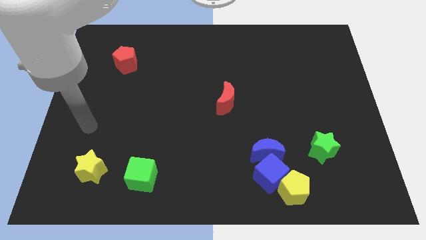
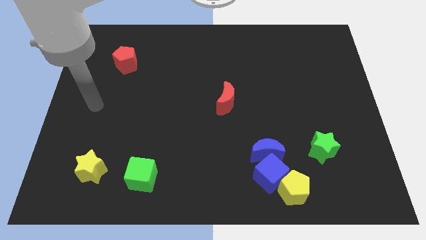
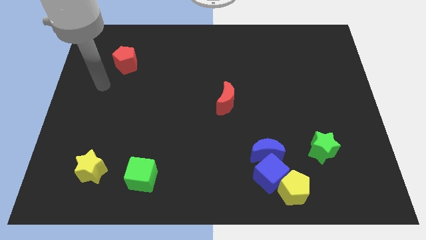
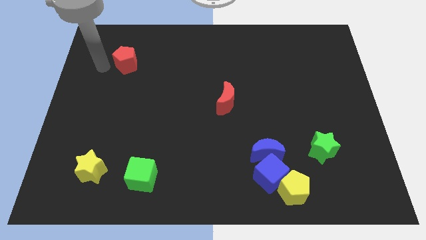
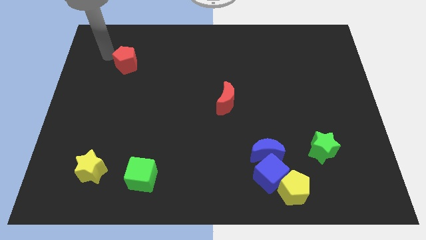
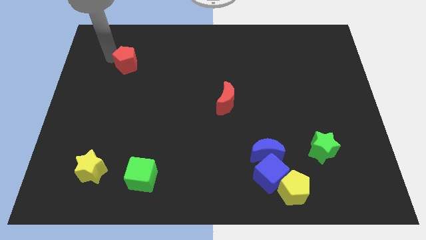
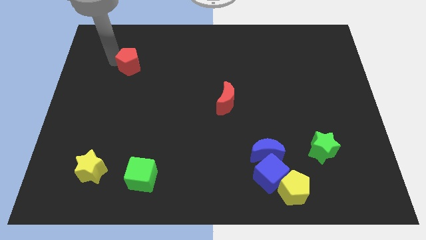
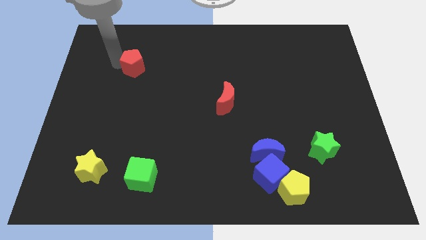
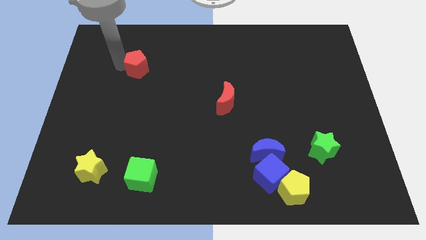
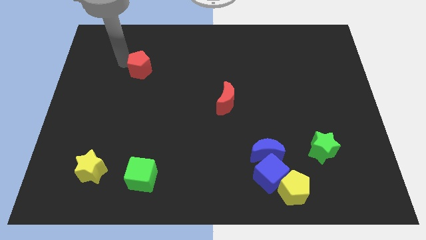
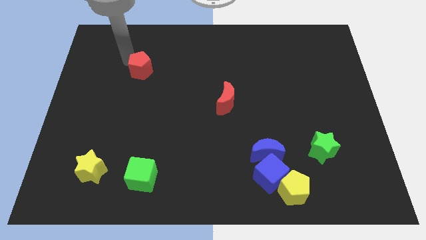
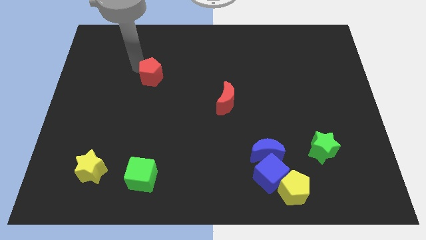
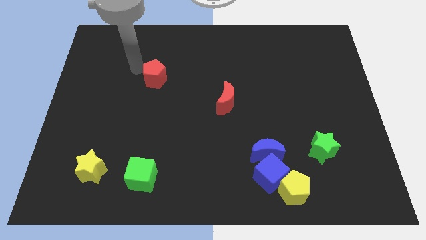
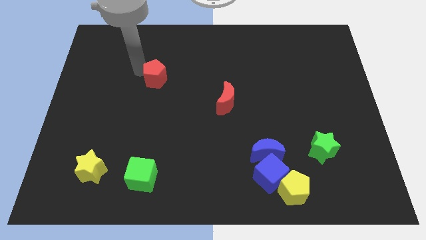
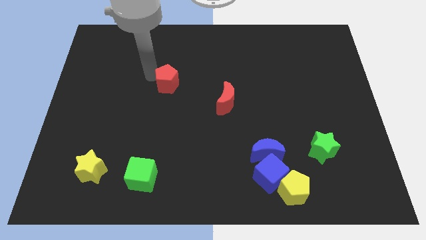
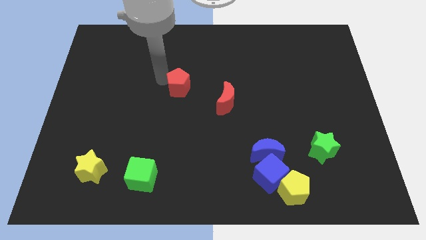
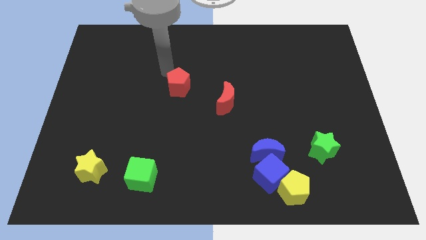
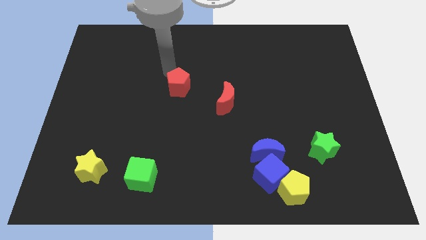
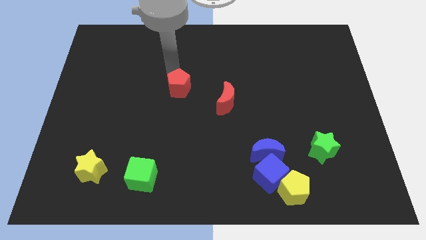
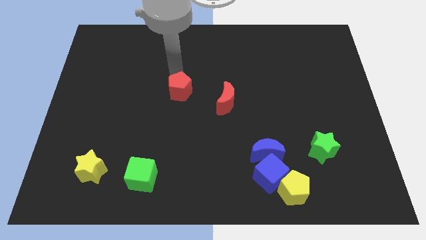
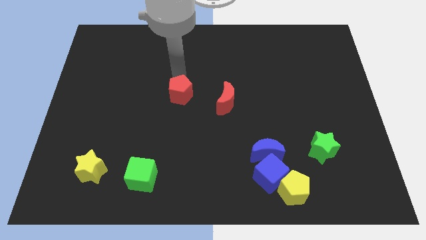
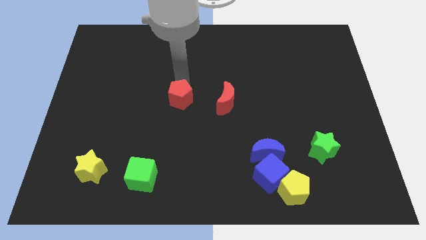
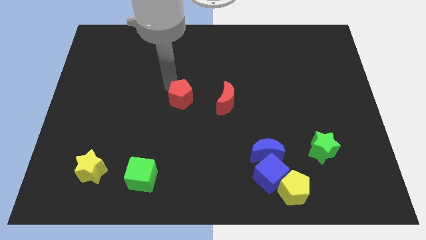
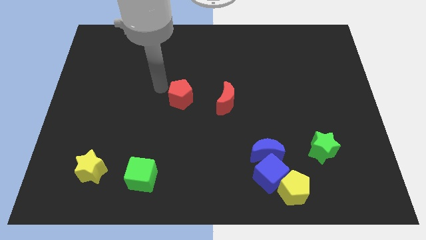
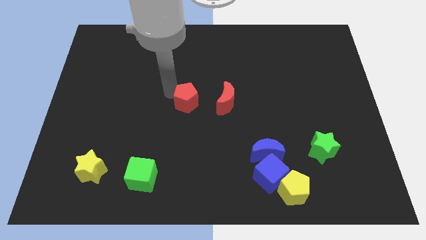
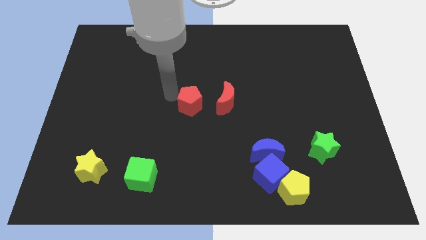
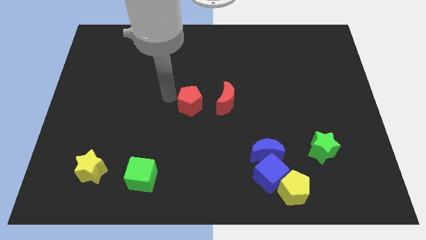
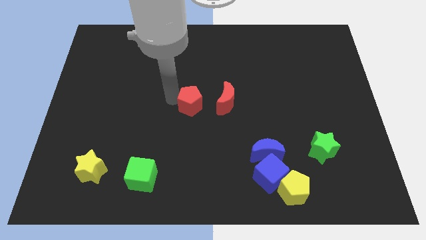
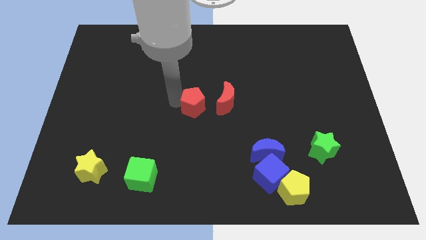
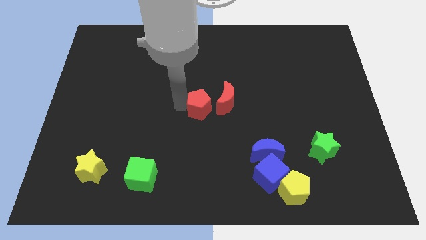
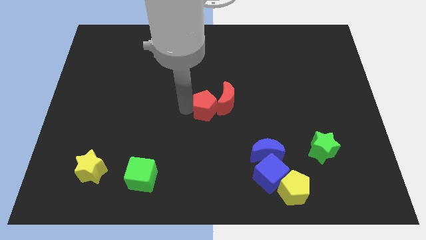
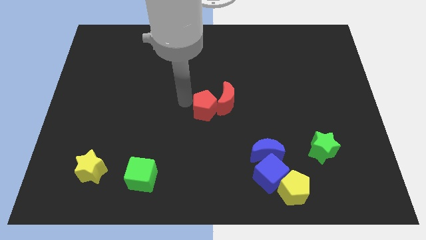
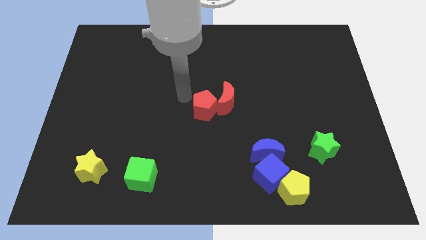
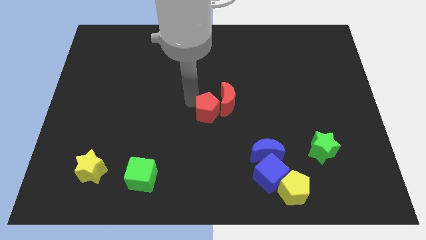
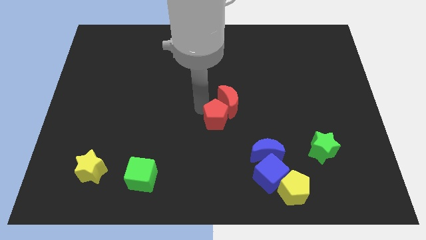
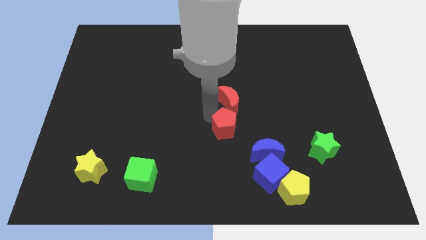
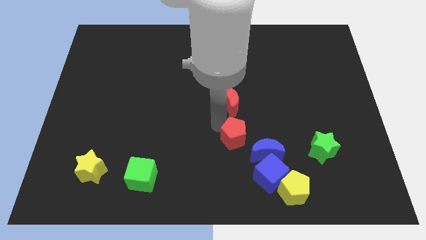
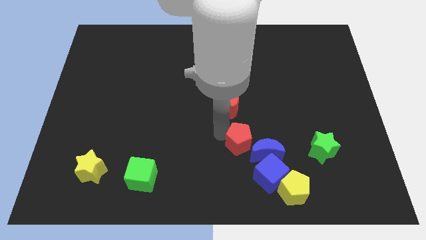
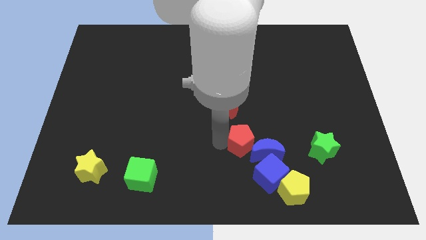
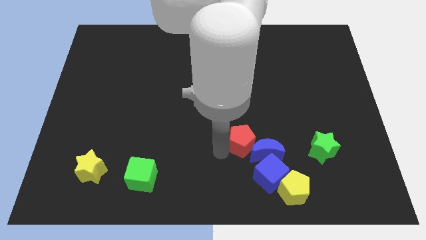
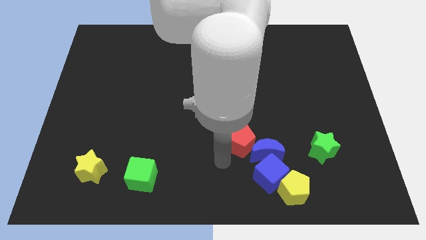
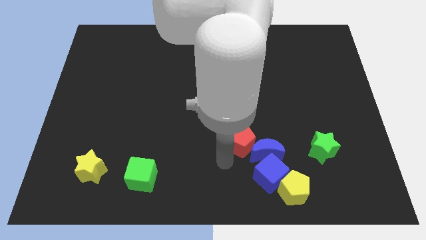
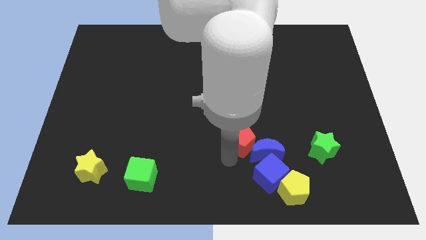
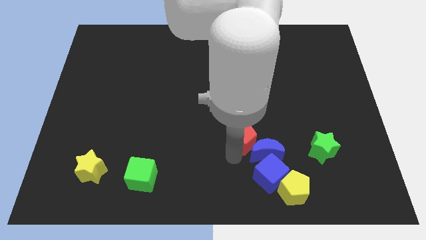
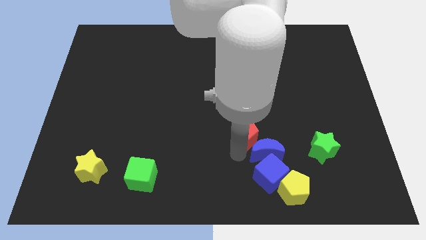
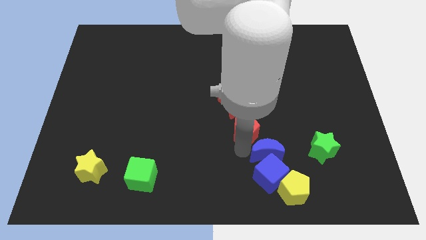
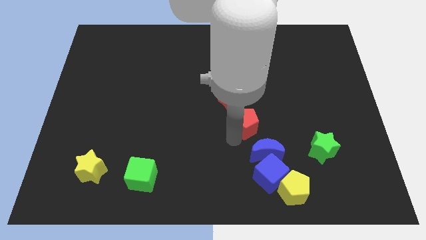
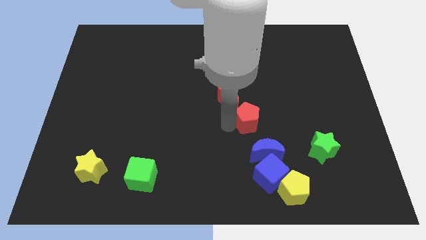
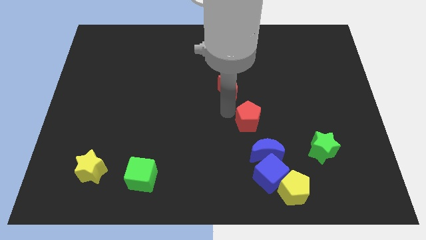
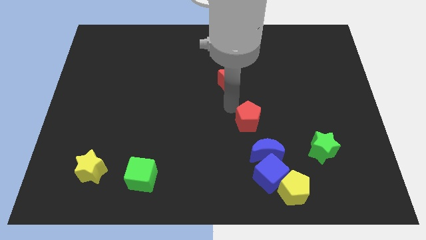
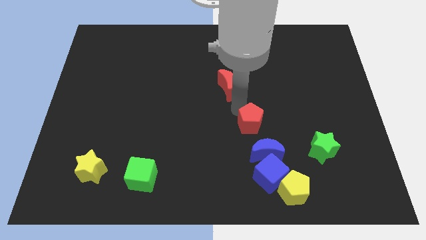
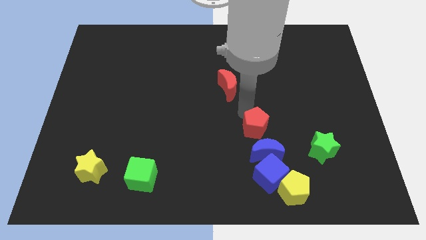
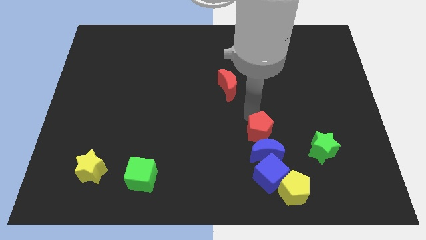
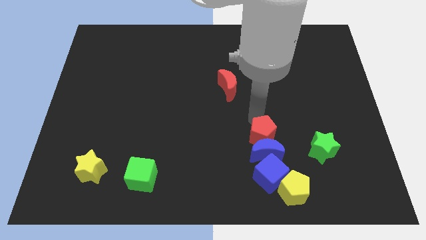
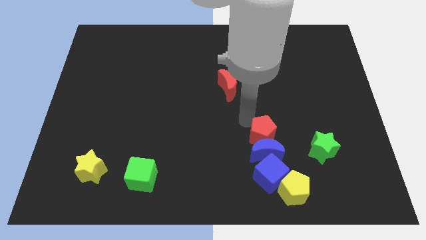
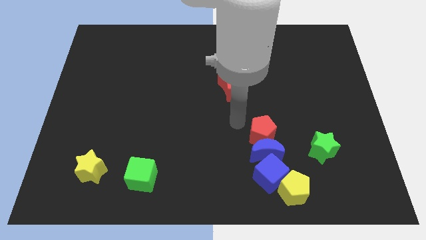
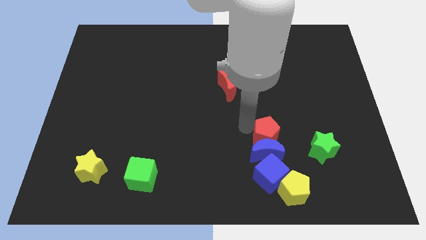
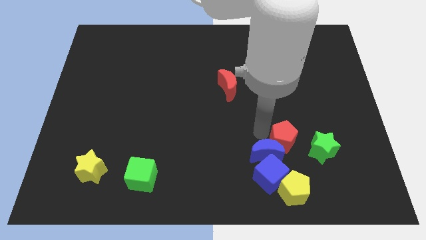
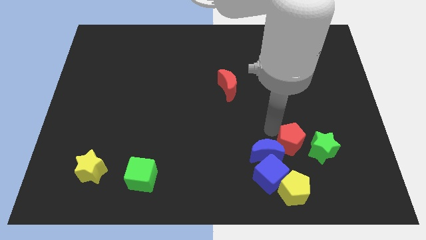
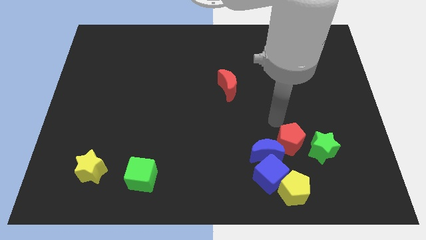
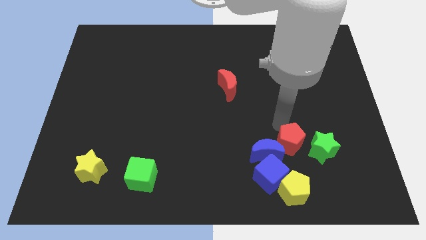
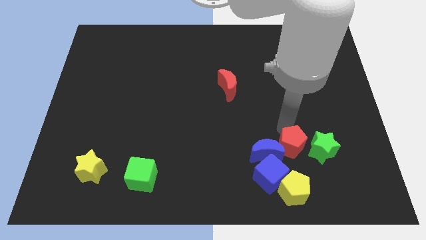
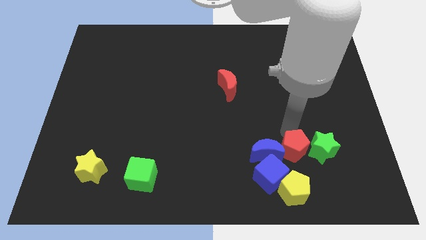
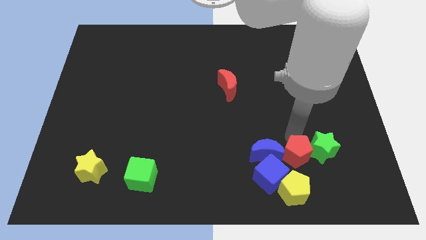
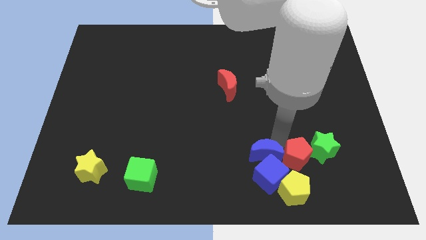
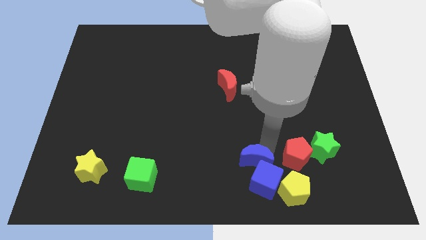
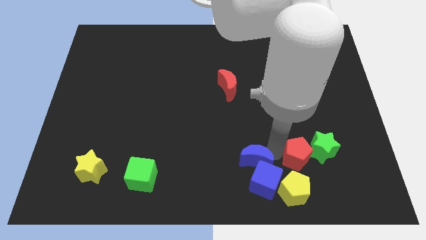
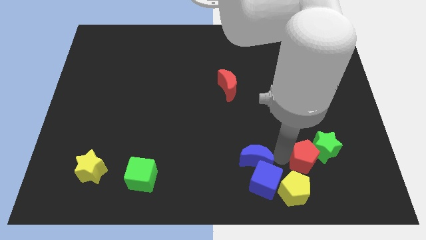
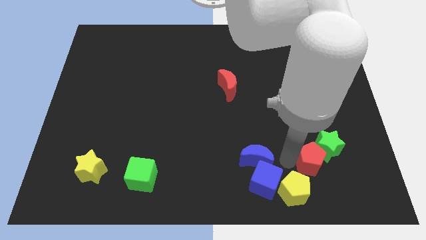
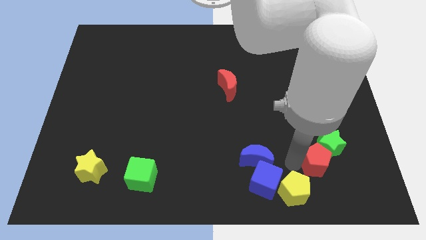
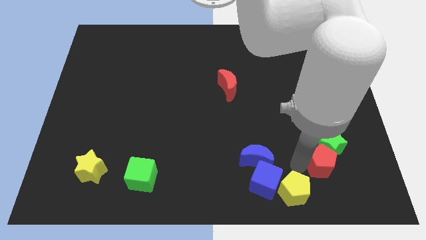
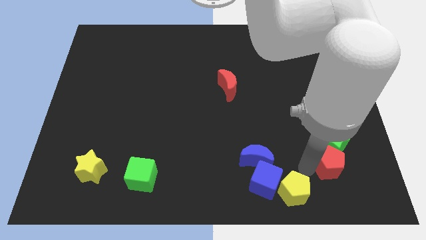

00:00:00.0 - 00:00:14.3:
move the red pentagon diagonally down and to the right of the green star
